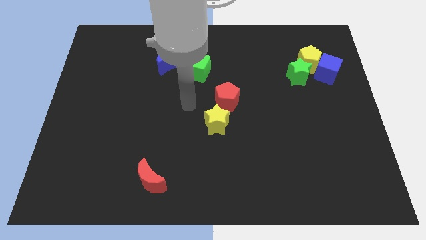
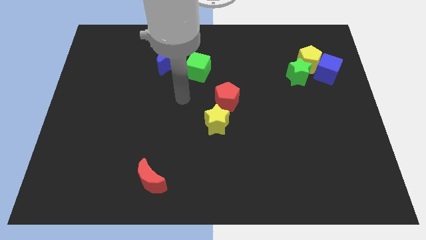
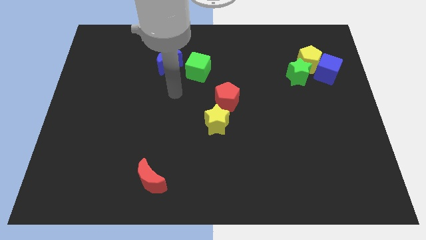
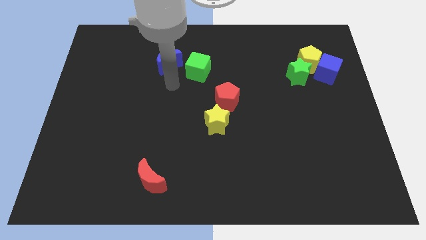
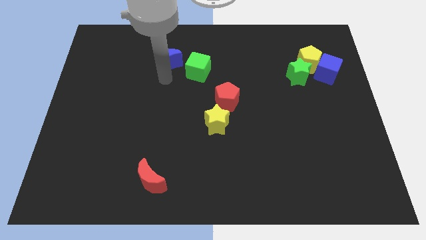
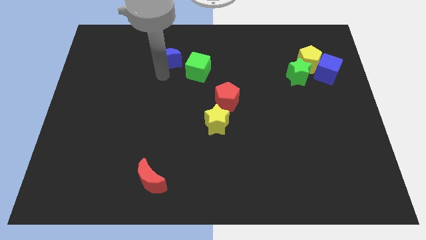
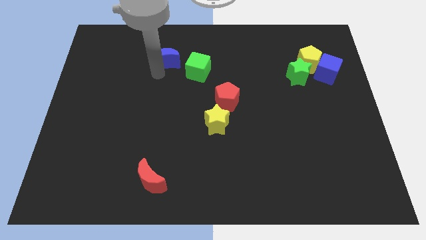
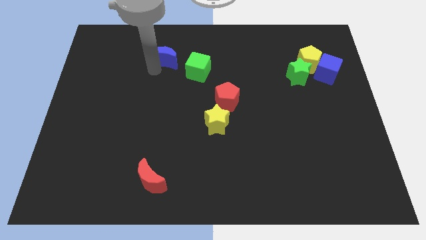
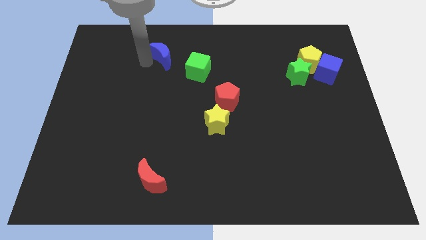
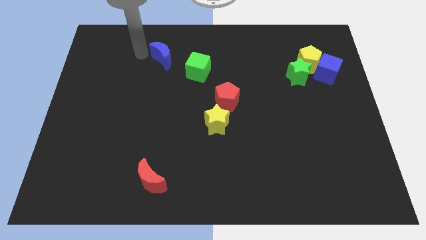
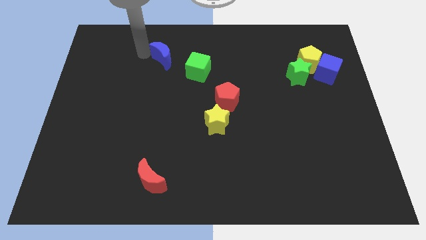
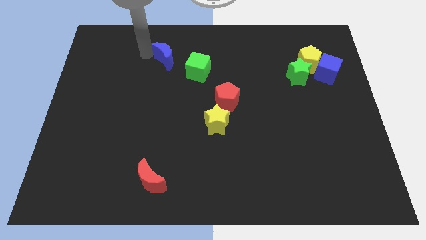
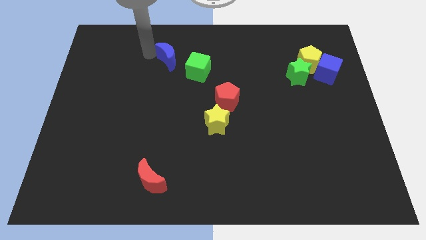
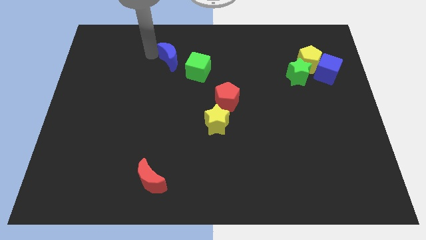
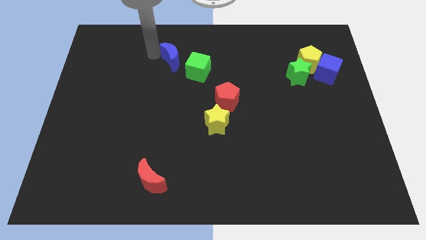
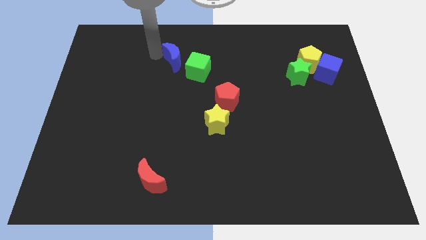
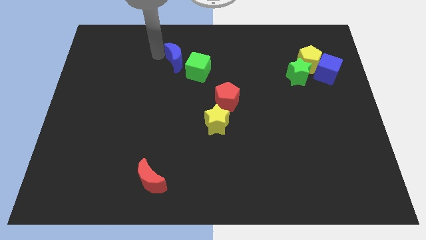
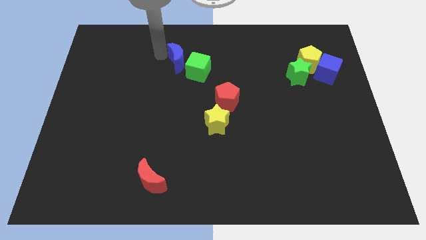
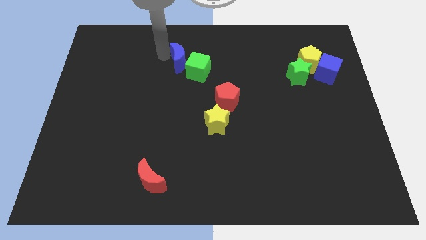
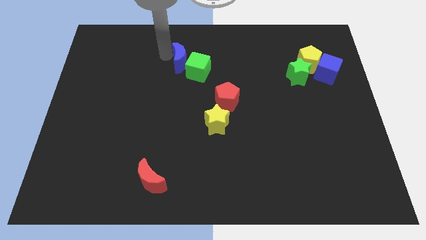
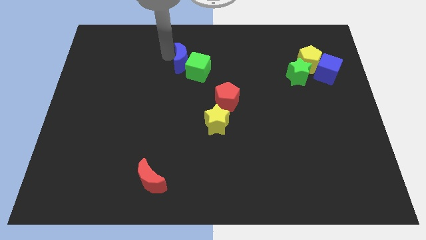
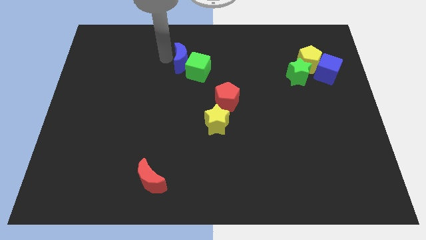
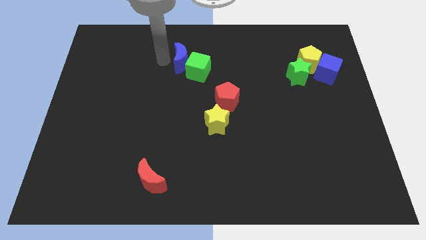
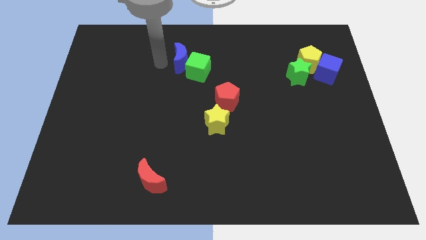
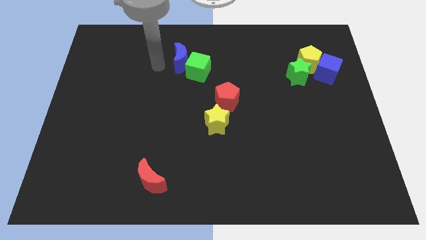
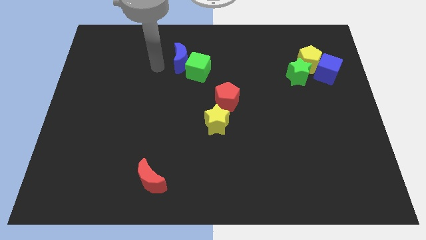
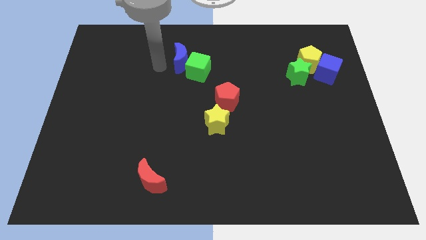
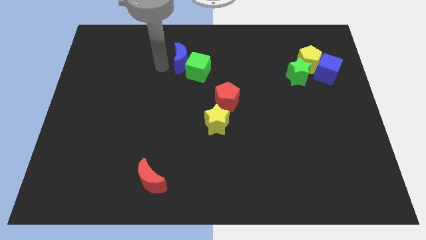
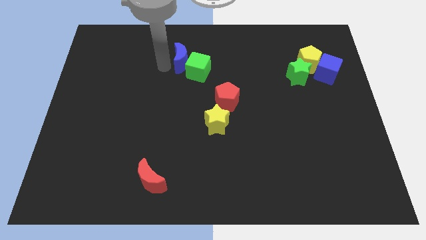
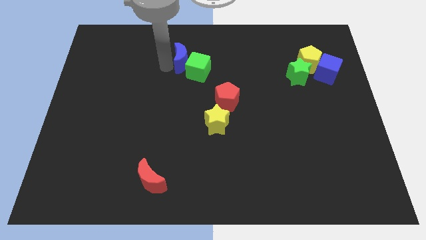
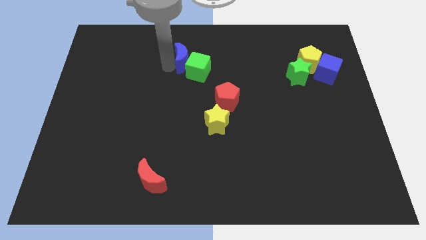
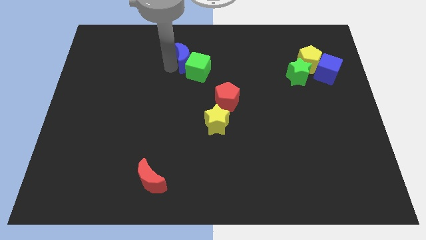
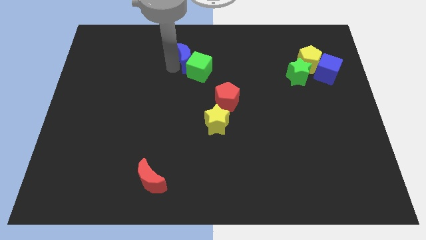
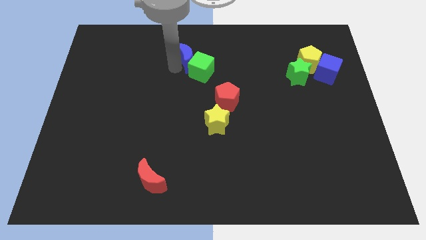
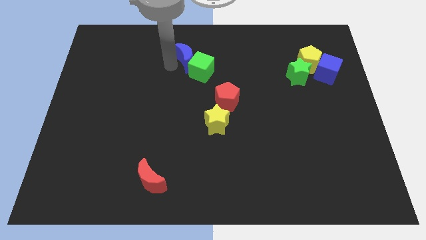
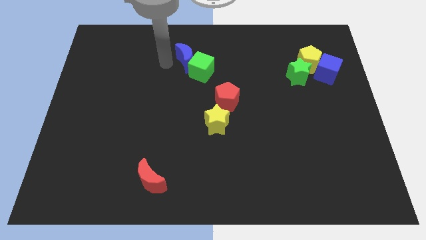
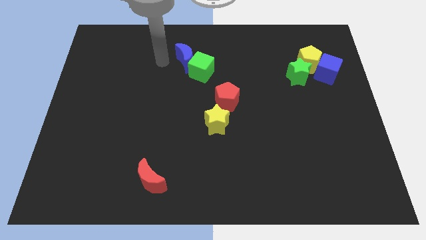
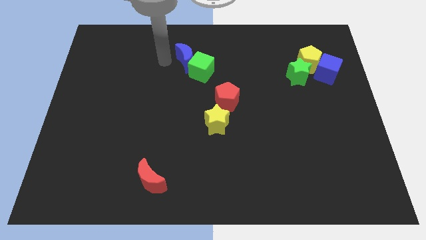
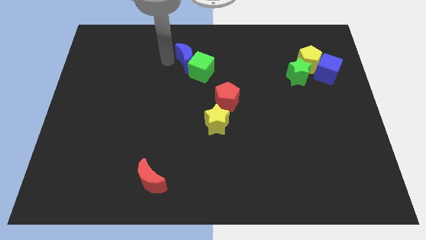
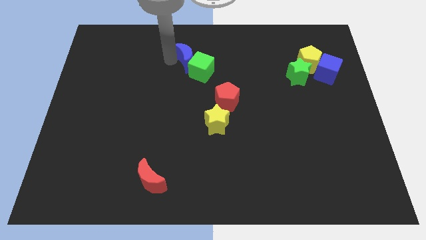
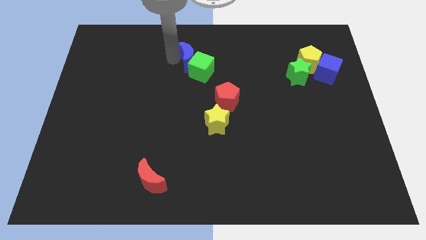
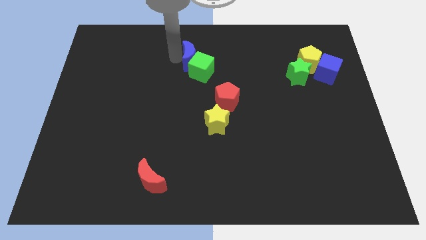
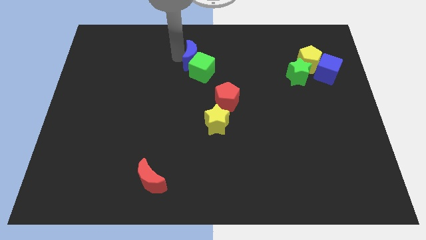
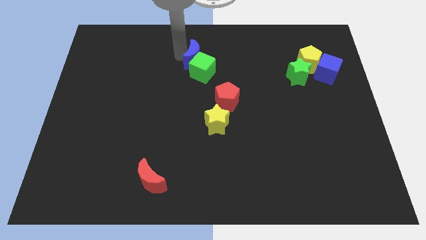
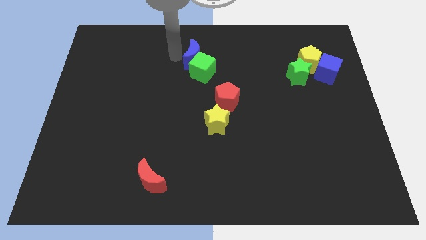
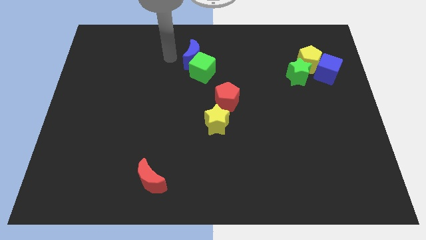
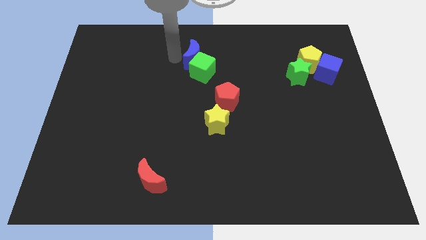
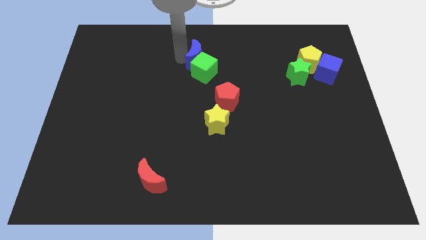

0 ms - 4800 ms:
slightly slide the blue moon right

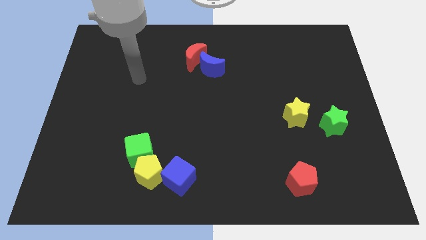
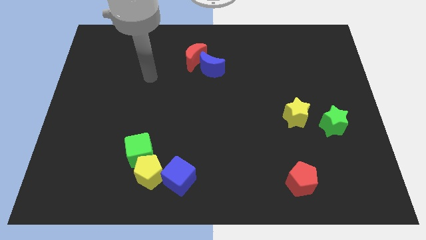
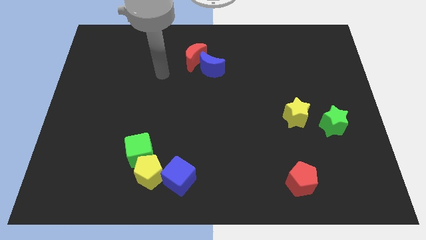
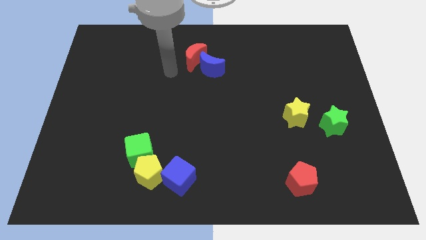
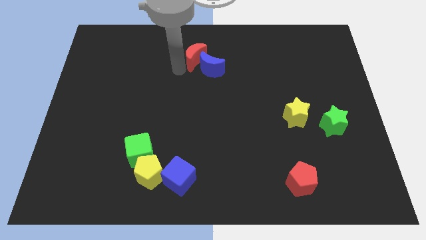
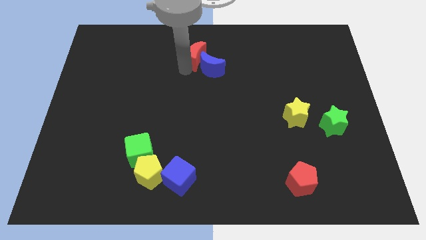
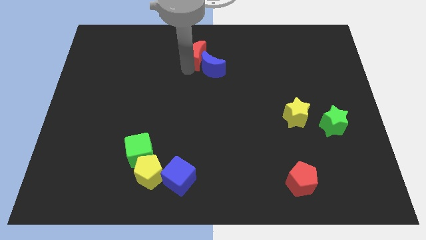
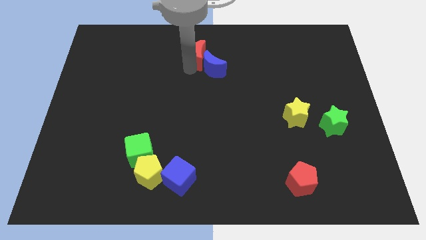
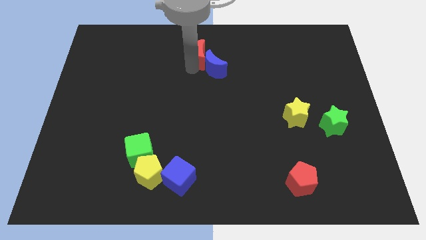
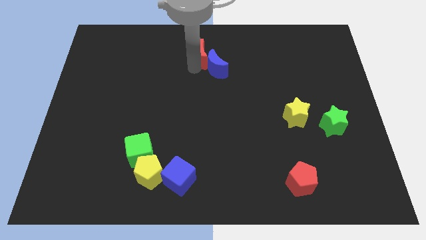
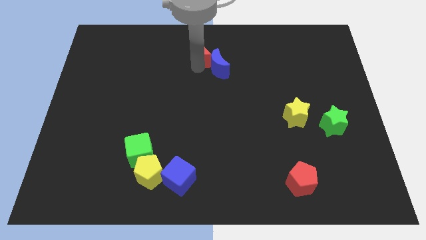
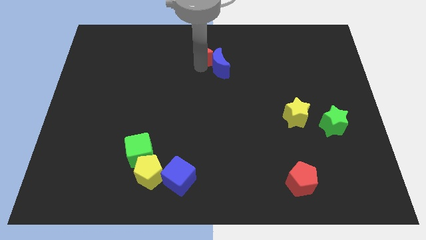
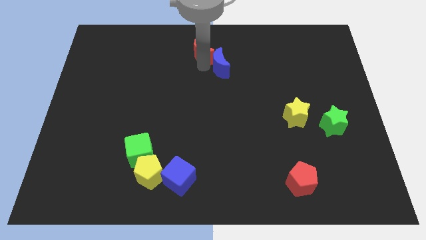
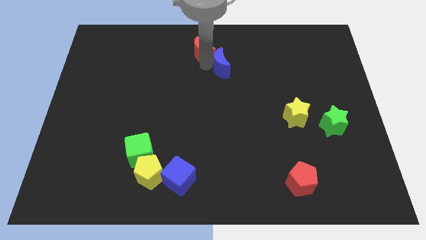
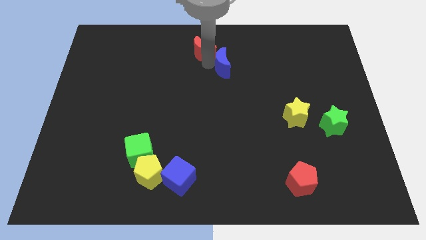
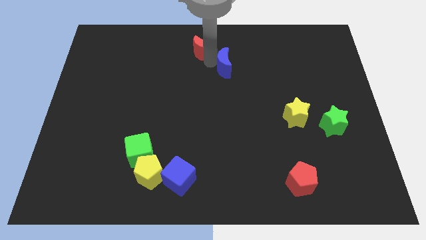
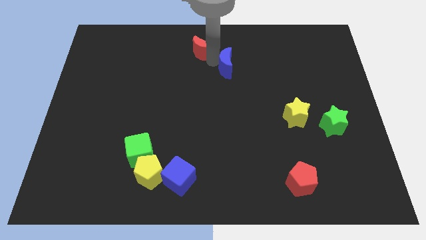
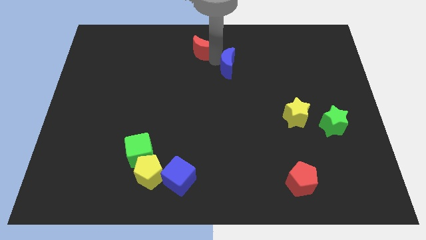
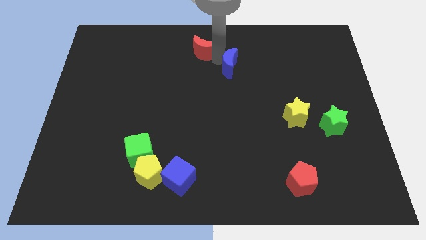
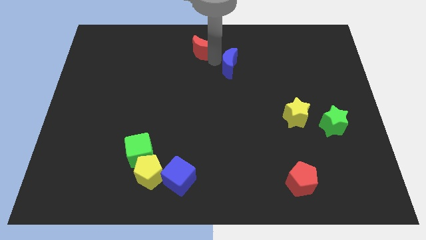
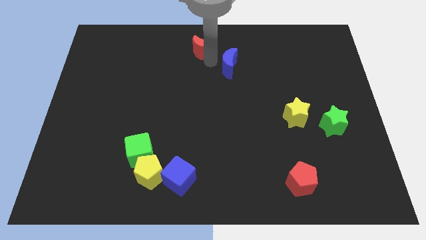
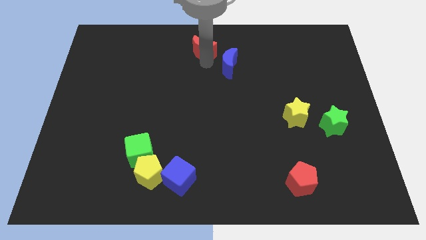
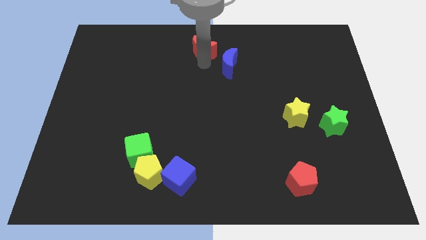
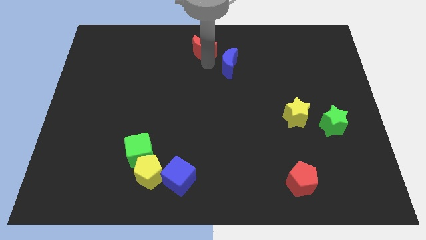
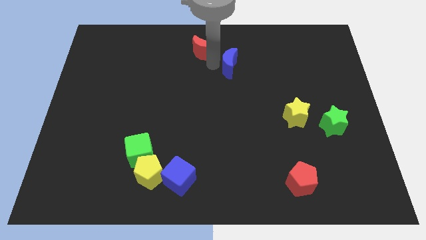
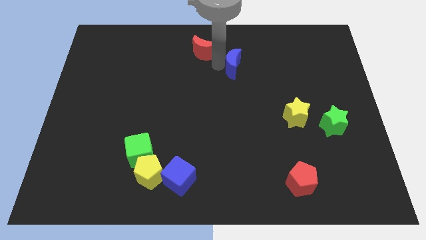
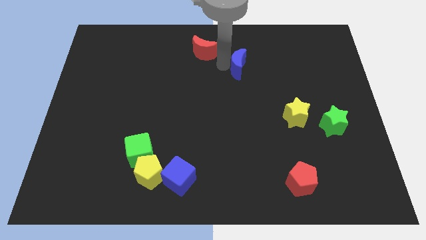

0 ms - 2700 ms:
move the blue moon slightly to the right

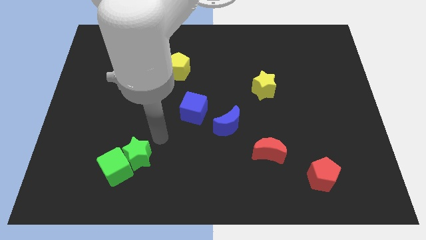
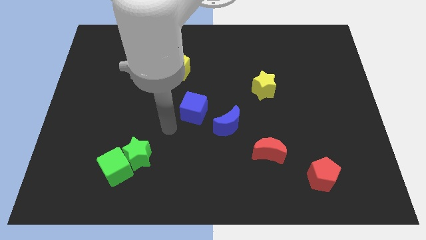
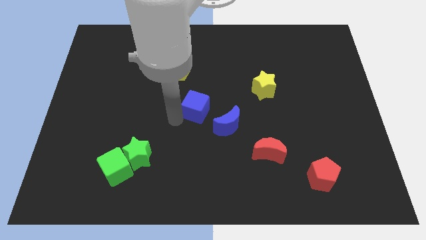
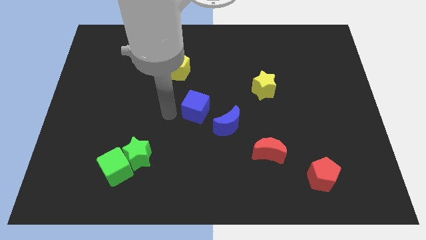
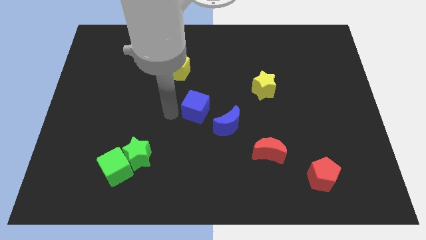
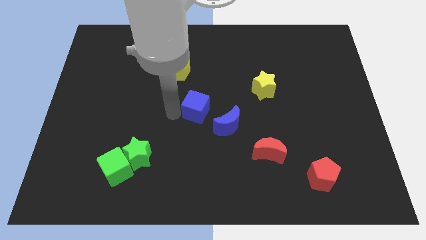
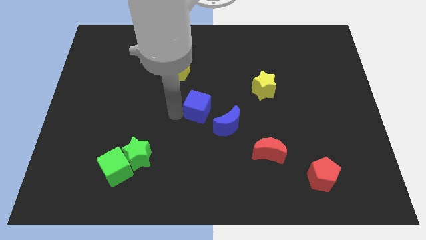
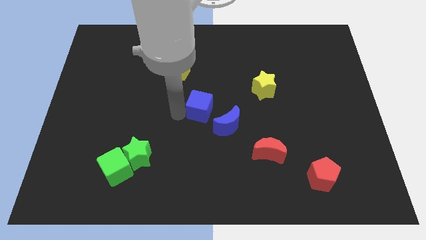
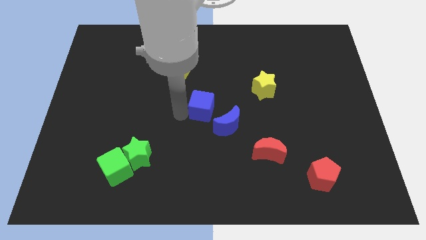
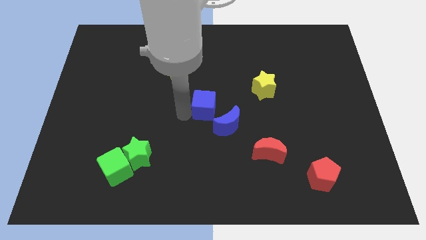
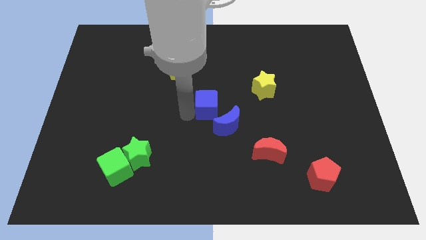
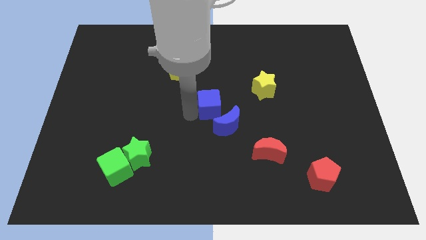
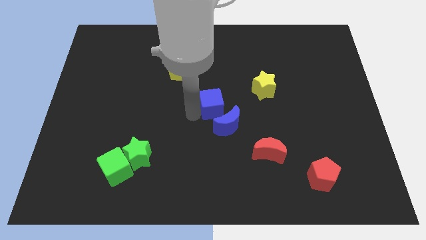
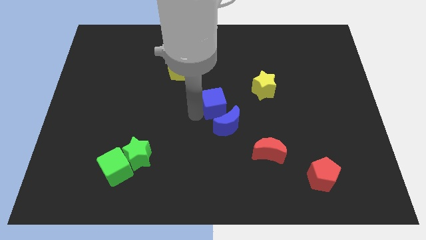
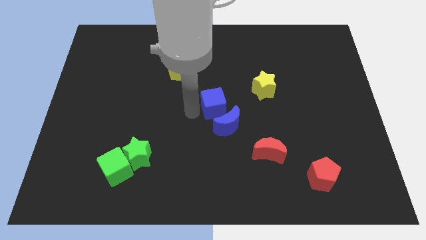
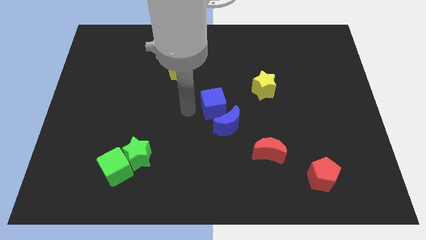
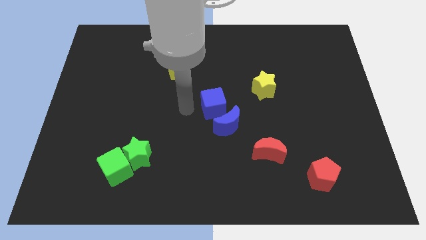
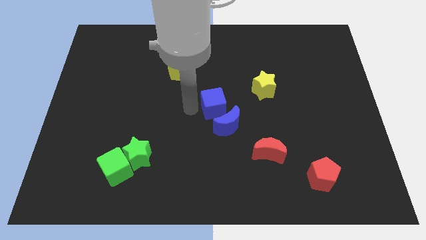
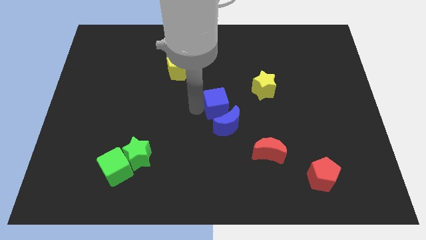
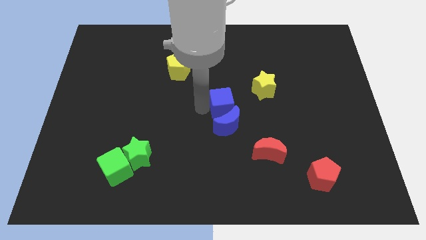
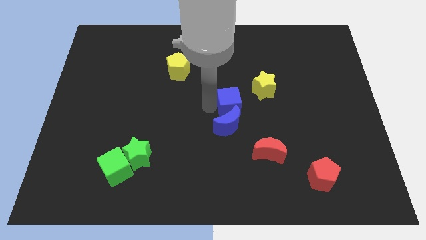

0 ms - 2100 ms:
slide the blue cube right somewhat
